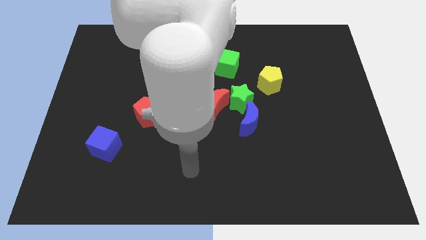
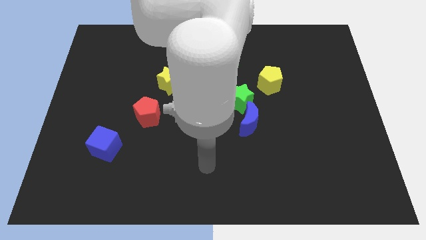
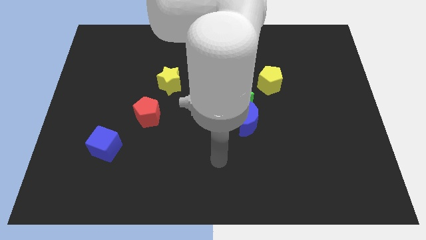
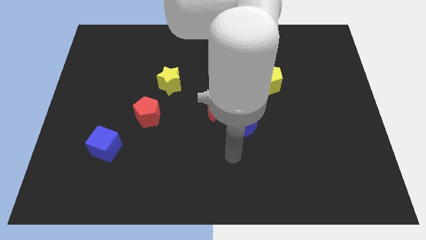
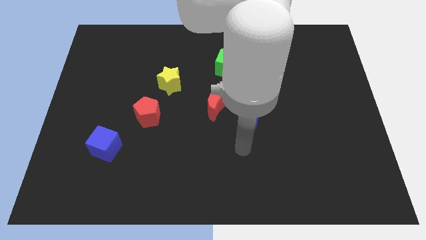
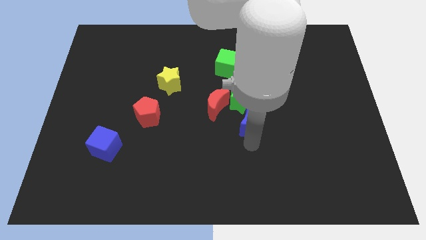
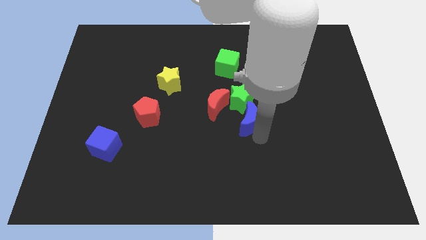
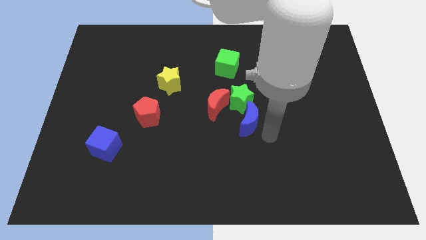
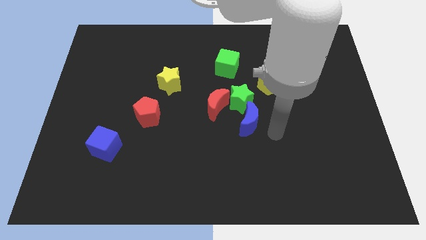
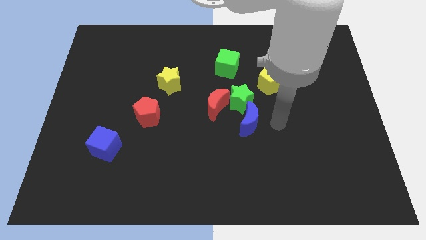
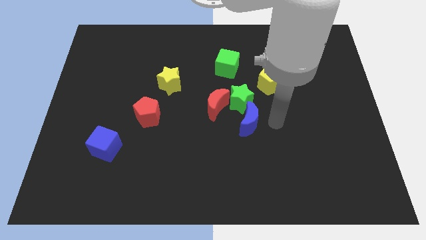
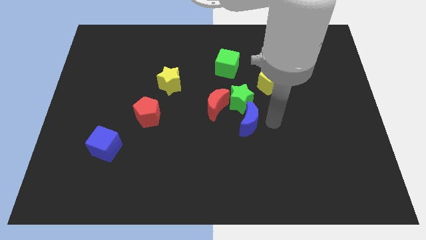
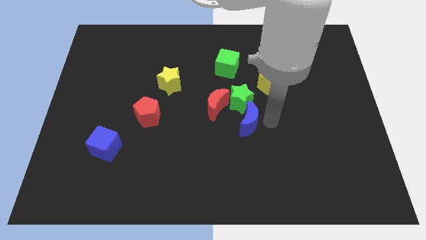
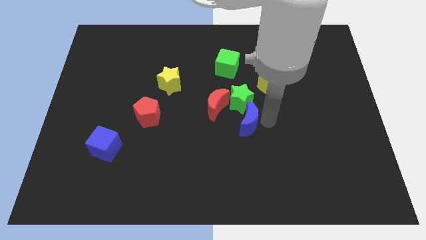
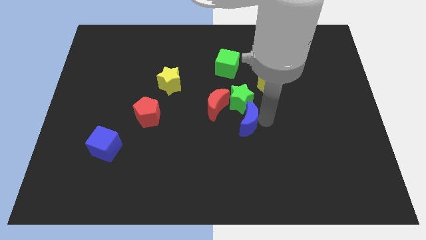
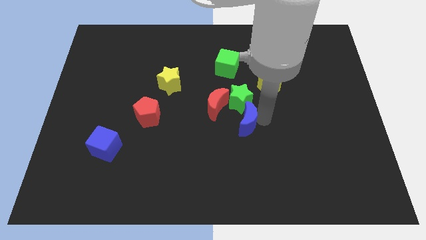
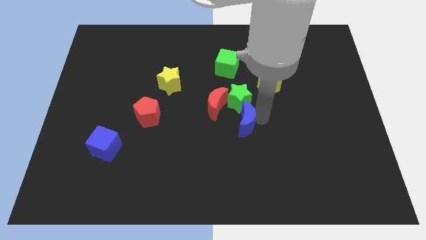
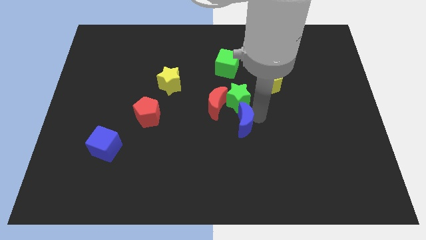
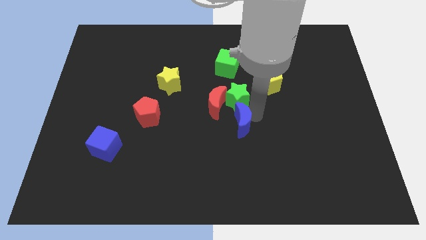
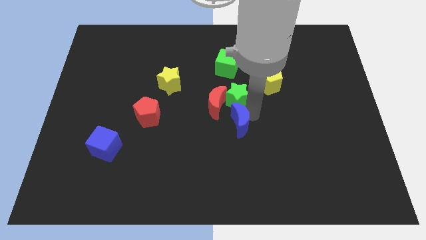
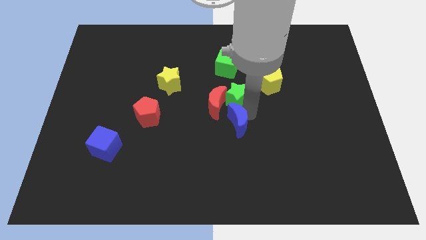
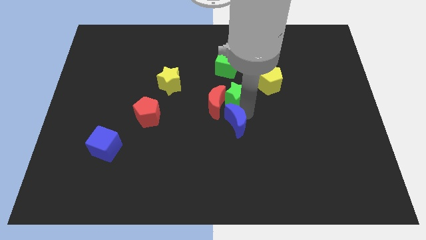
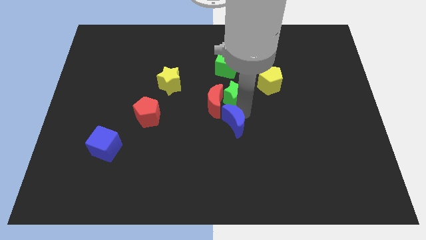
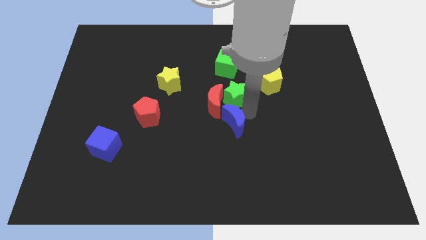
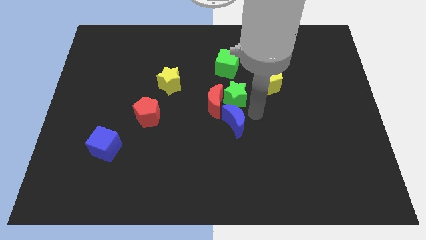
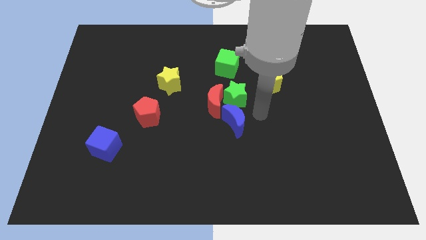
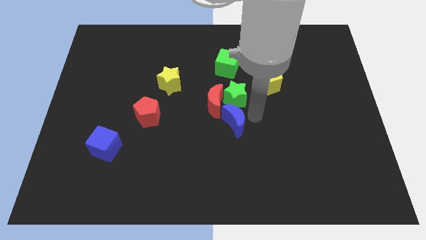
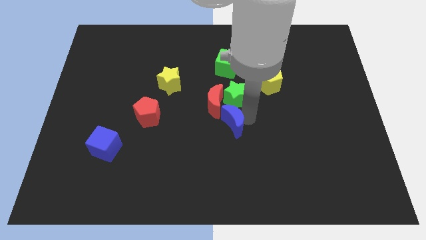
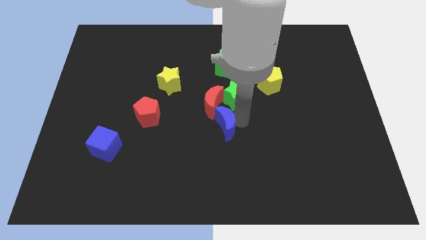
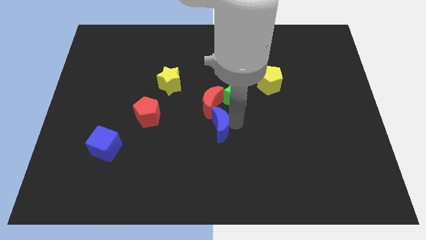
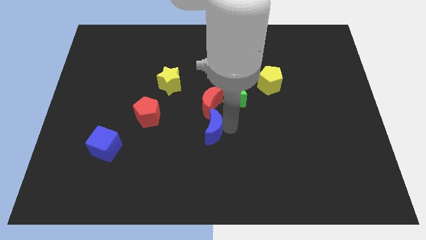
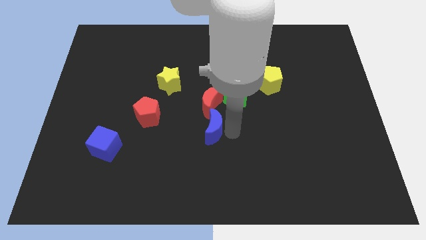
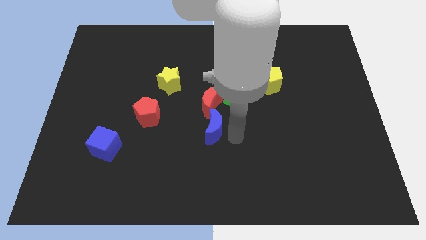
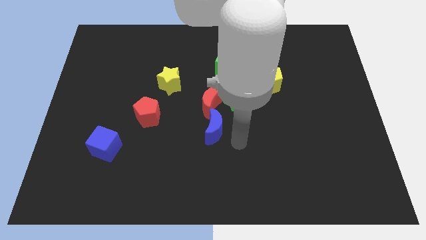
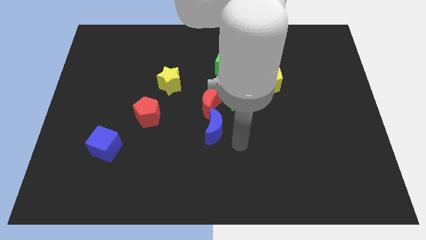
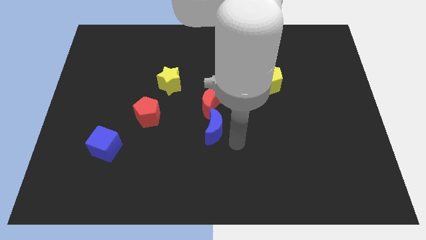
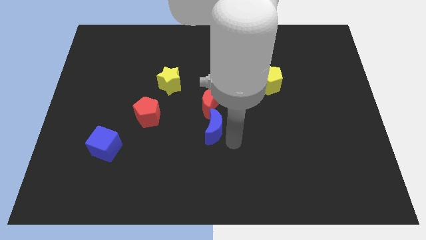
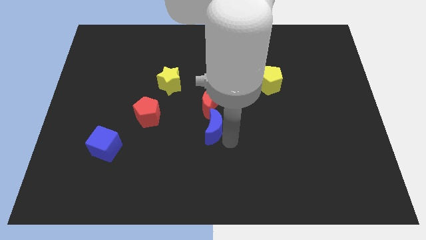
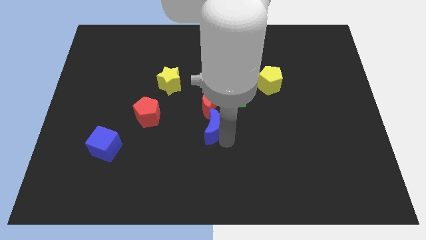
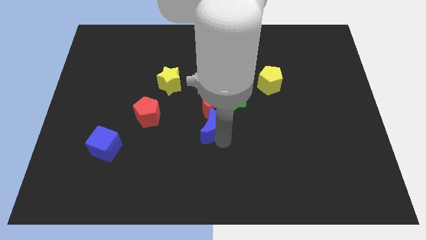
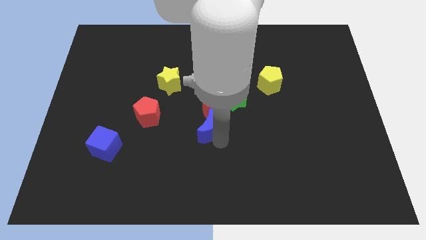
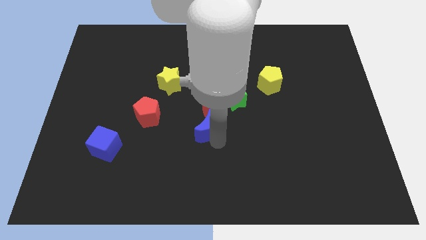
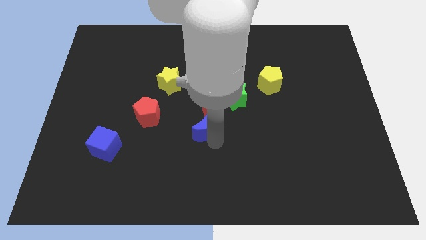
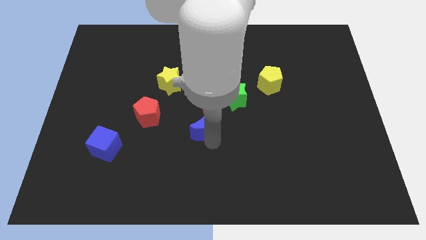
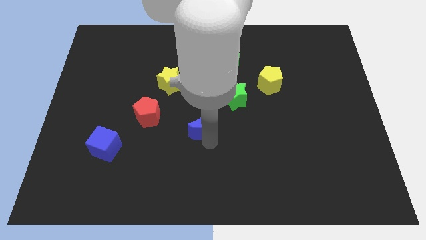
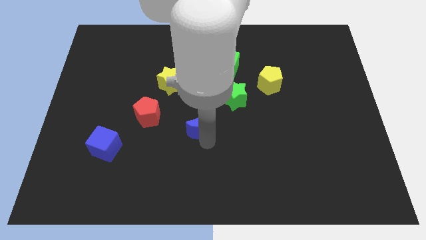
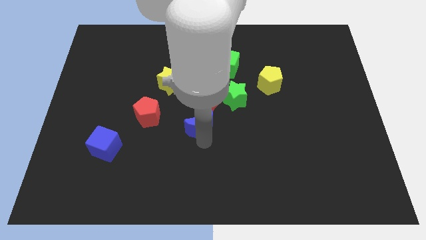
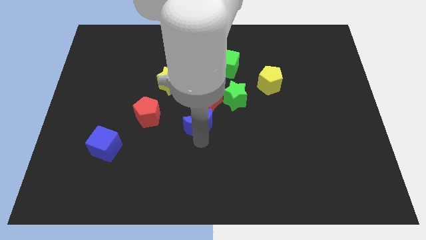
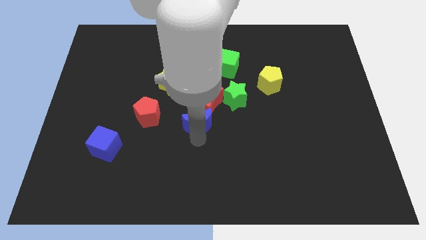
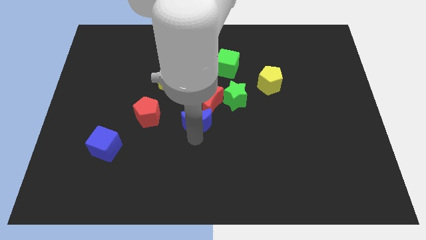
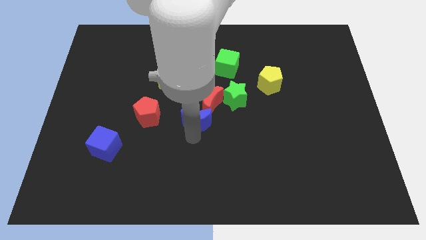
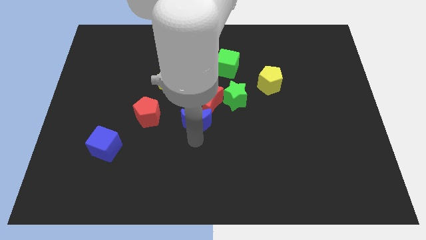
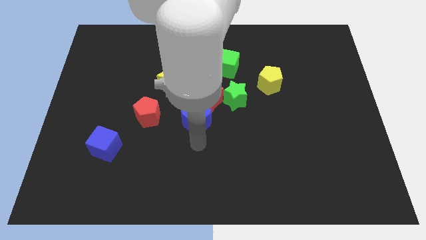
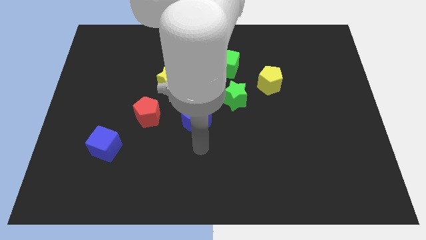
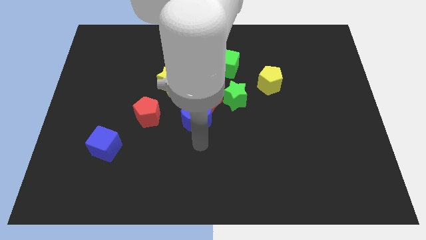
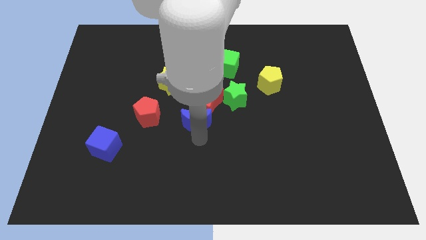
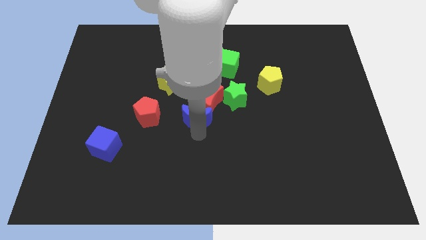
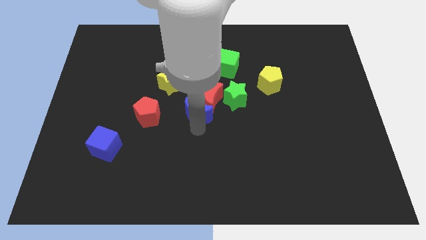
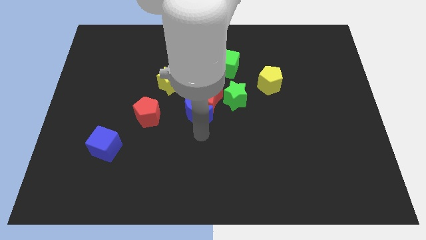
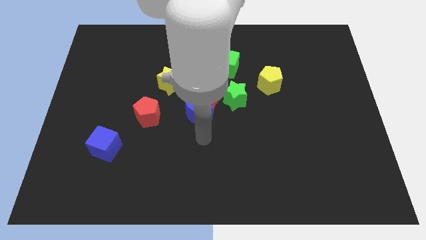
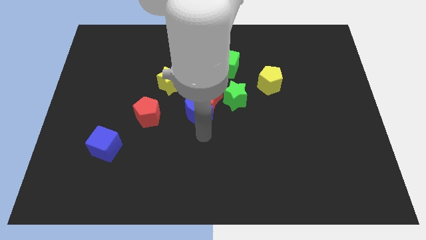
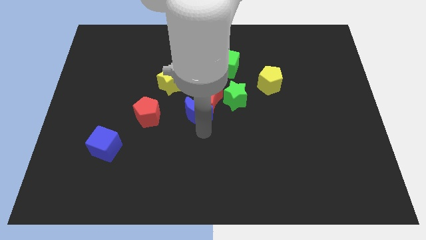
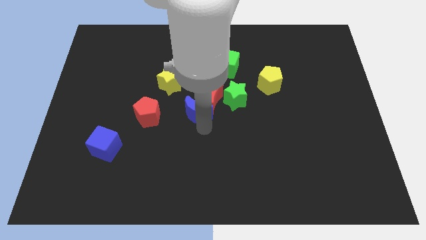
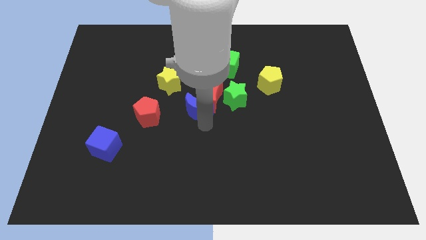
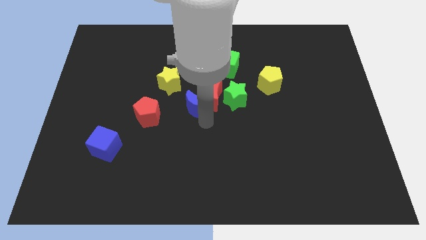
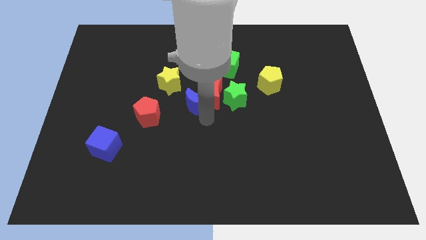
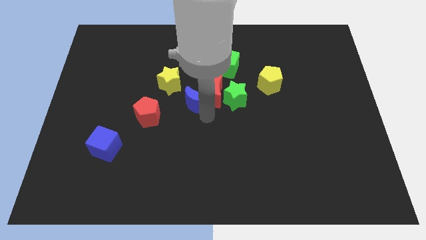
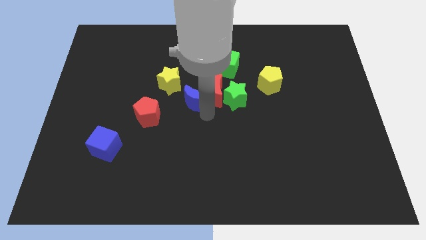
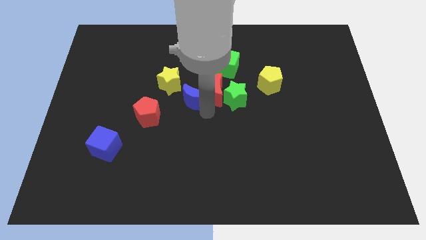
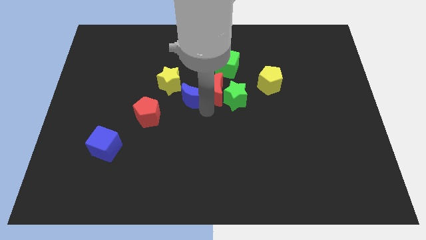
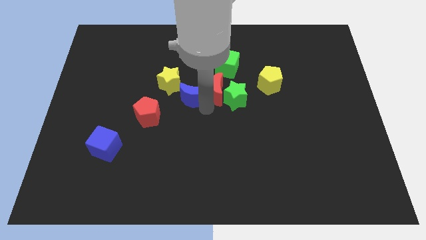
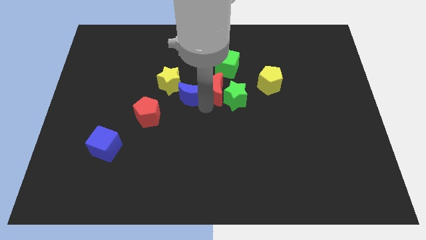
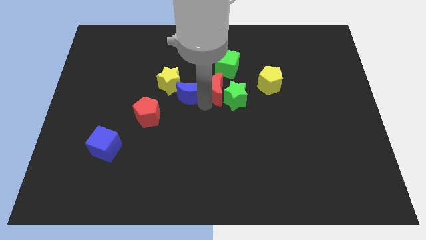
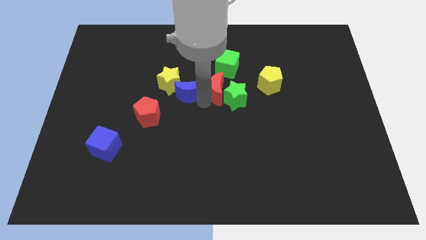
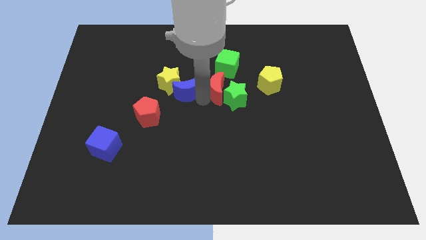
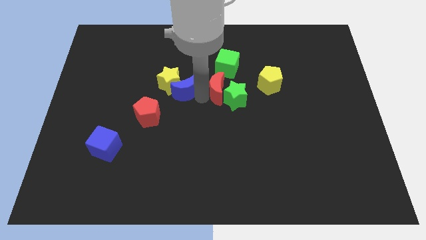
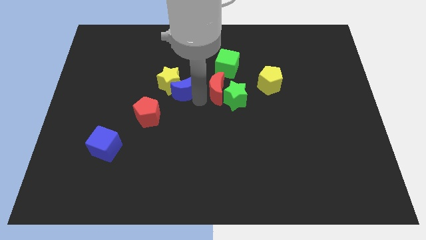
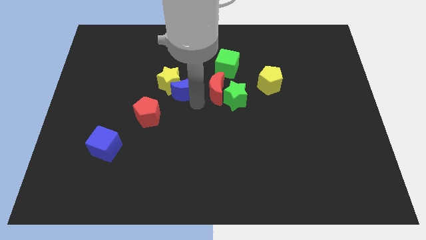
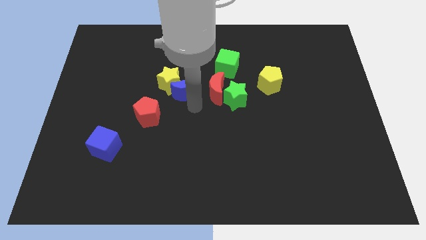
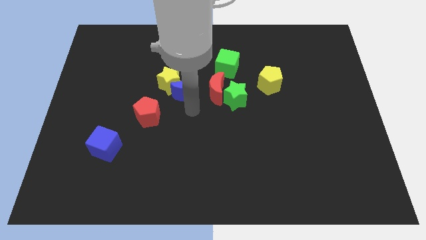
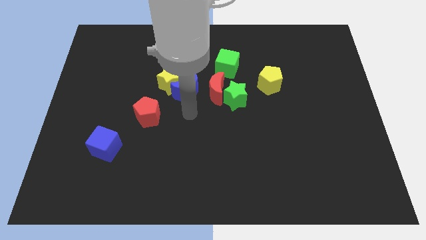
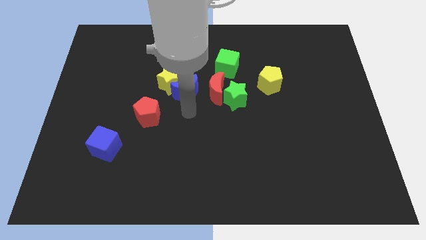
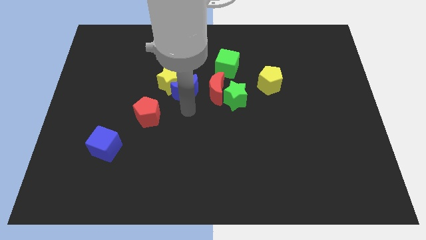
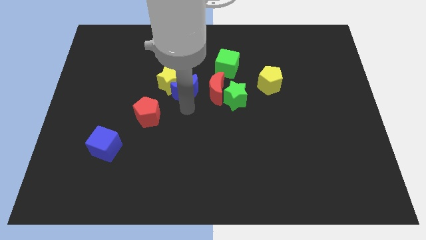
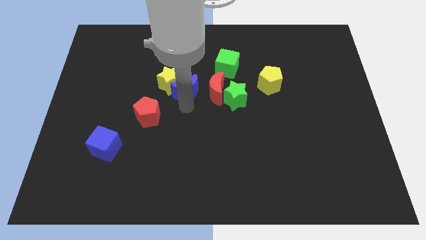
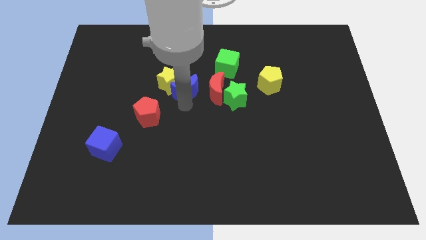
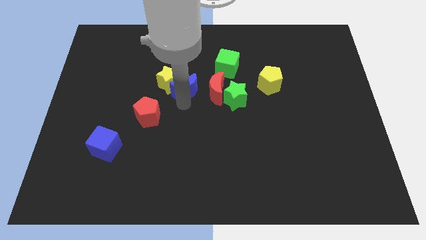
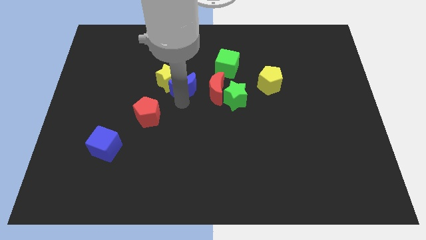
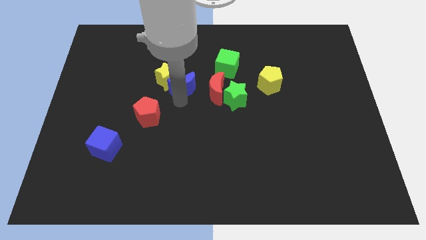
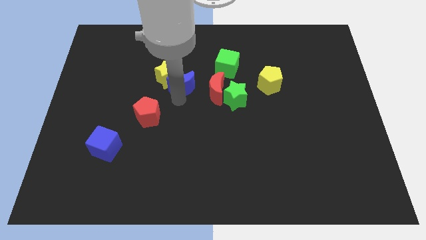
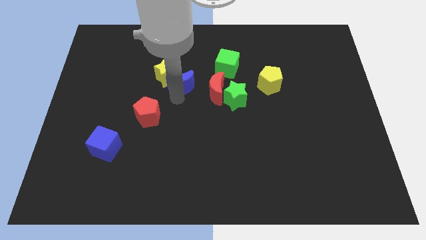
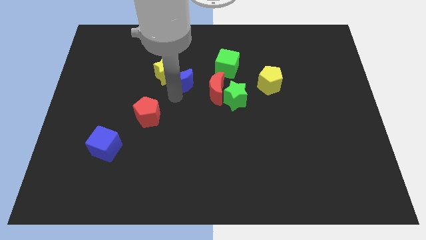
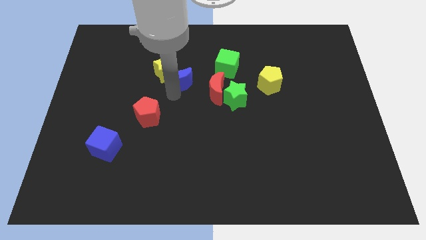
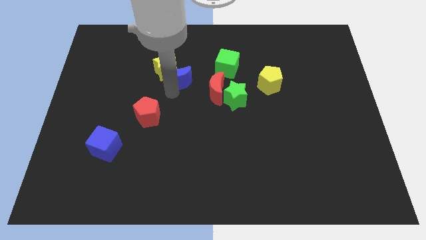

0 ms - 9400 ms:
move the blue moon just left of the green cube
